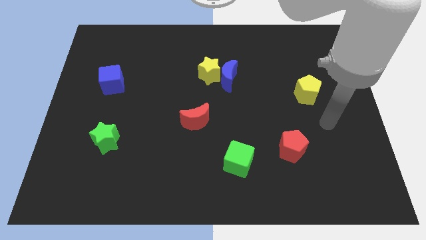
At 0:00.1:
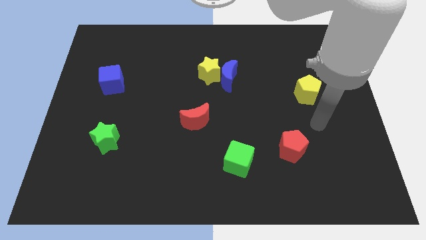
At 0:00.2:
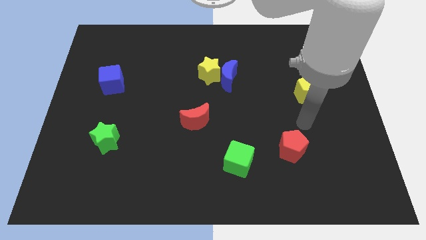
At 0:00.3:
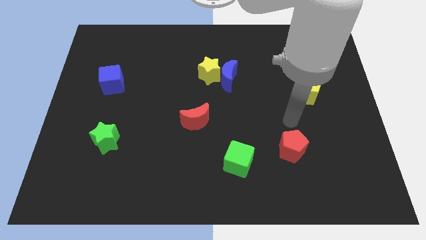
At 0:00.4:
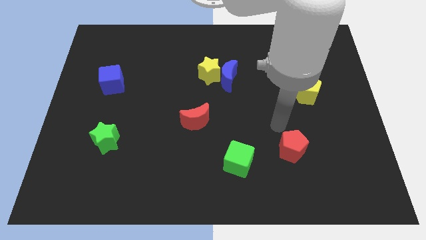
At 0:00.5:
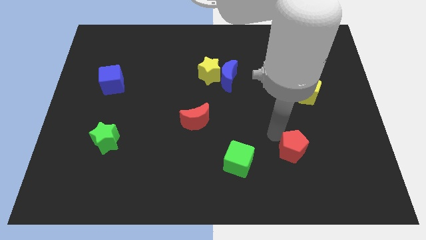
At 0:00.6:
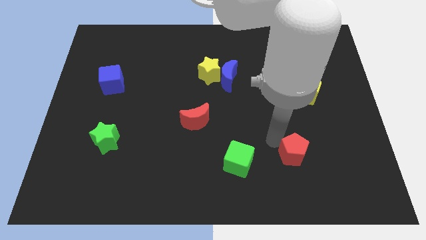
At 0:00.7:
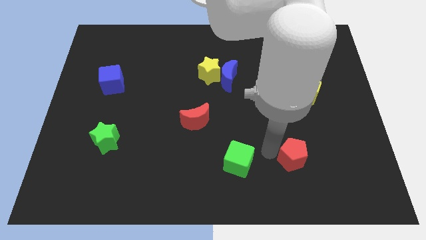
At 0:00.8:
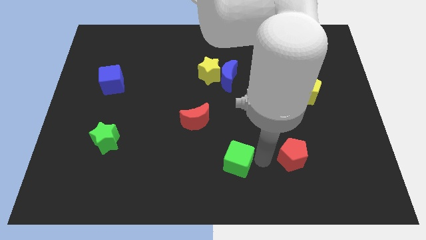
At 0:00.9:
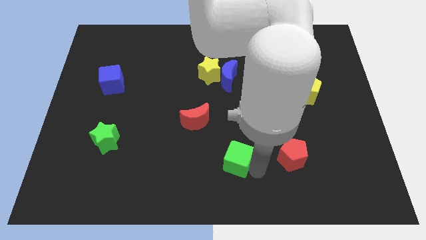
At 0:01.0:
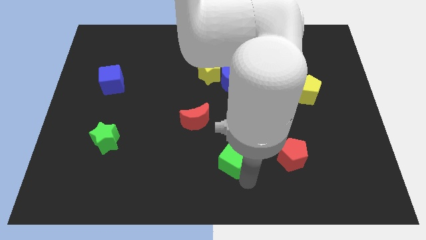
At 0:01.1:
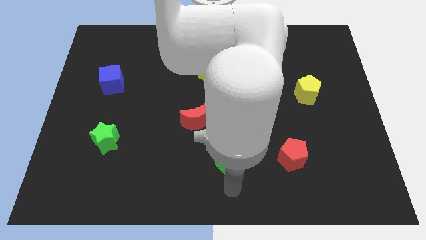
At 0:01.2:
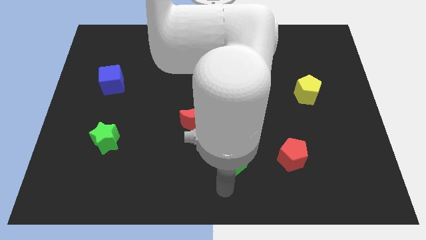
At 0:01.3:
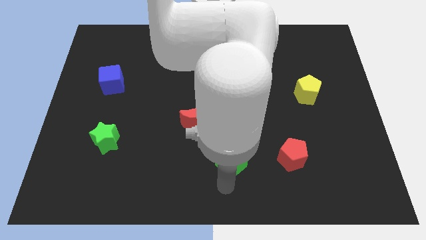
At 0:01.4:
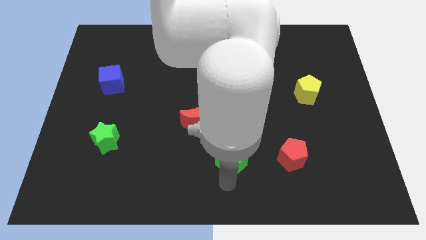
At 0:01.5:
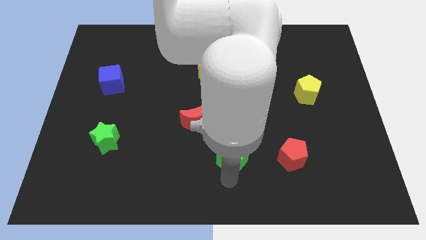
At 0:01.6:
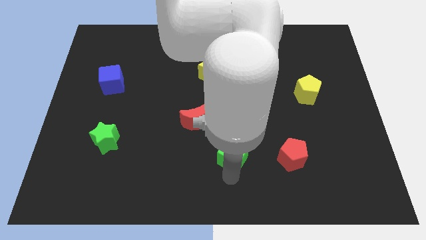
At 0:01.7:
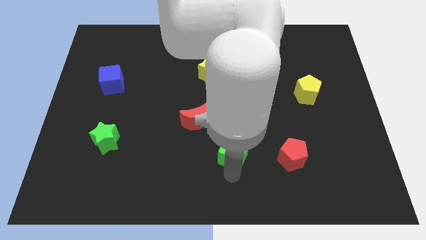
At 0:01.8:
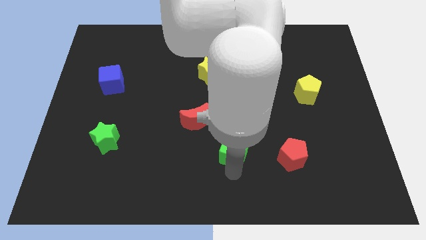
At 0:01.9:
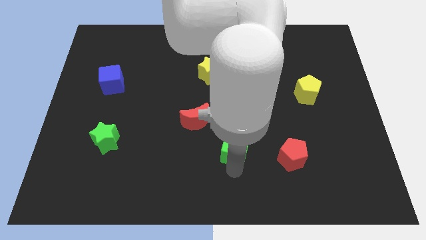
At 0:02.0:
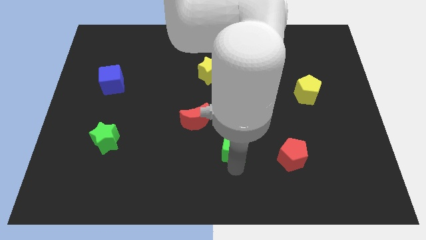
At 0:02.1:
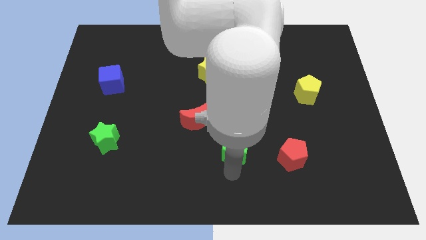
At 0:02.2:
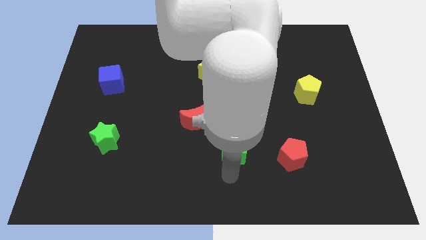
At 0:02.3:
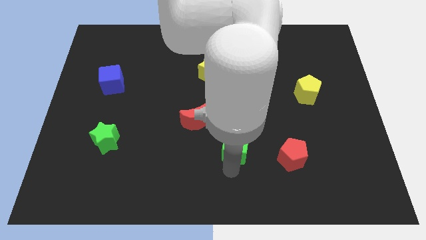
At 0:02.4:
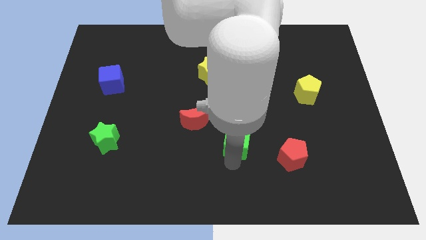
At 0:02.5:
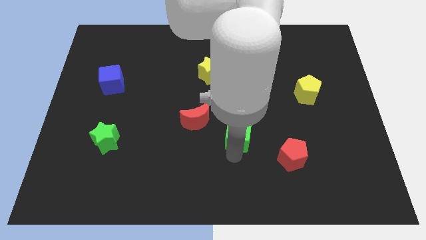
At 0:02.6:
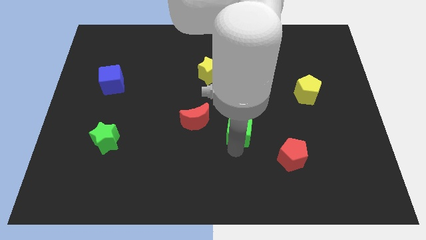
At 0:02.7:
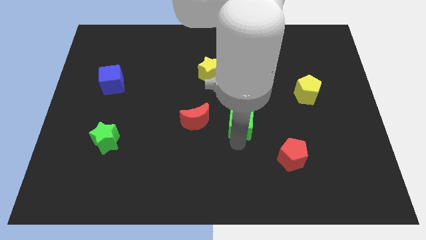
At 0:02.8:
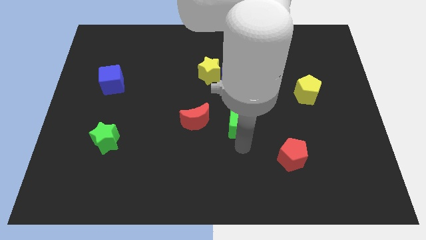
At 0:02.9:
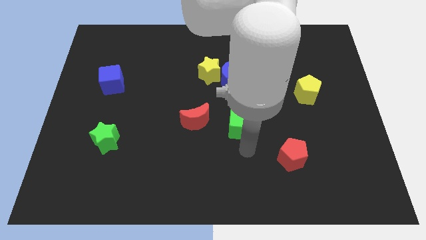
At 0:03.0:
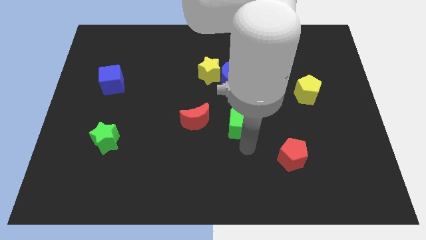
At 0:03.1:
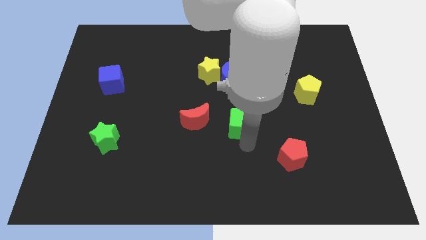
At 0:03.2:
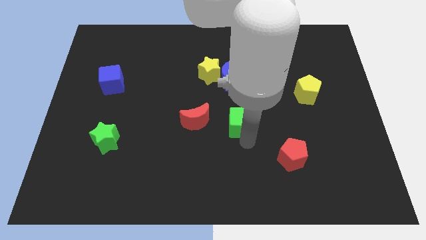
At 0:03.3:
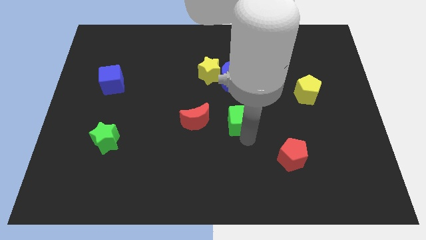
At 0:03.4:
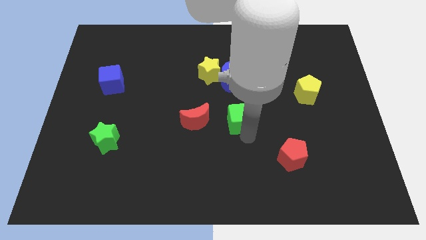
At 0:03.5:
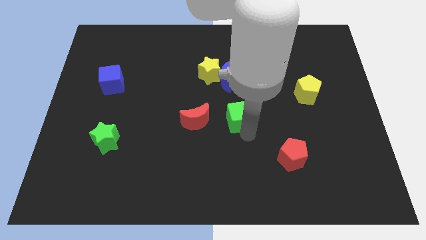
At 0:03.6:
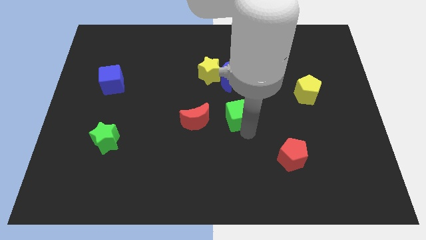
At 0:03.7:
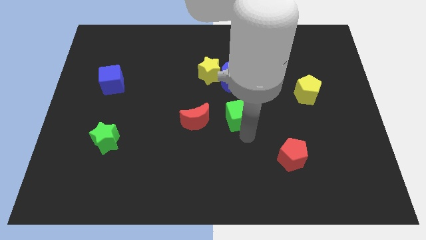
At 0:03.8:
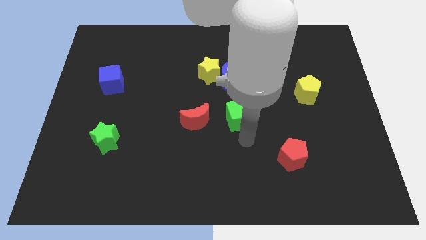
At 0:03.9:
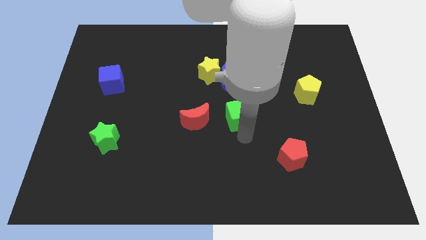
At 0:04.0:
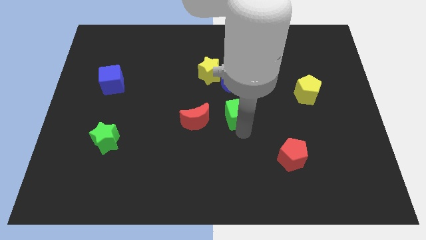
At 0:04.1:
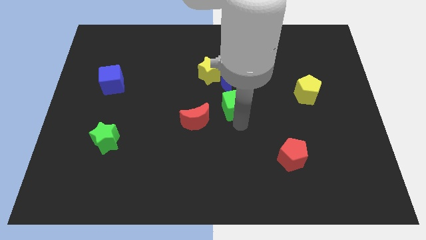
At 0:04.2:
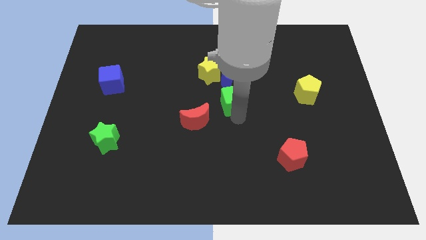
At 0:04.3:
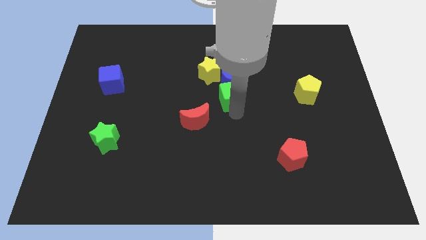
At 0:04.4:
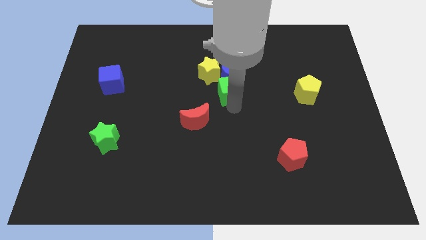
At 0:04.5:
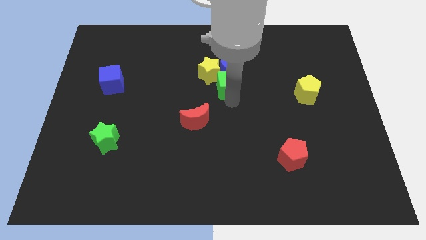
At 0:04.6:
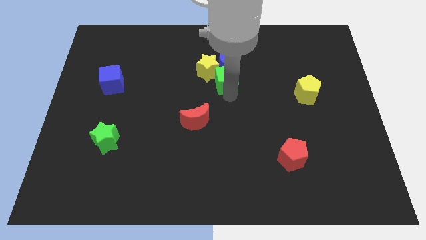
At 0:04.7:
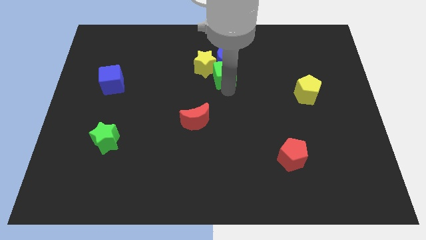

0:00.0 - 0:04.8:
slide the green cube close to the blue moon

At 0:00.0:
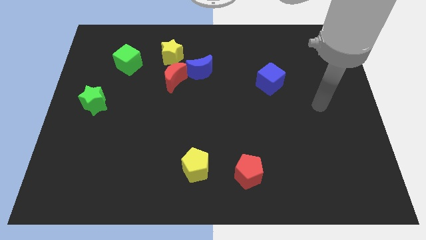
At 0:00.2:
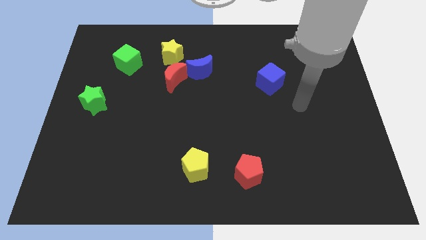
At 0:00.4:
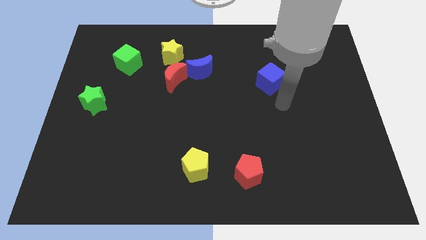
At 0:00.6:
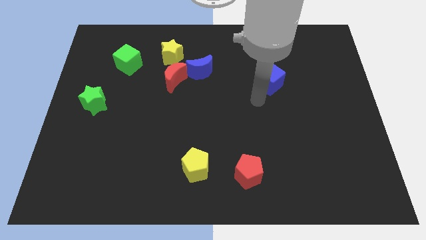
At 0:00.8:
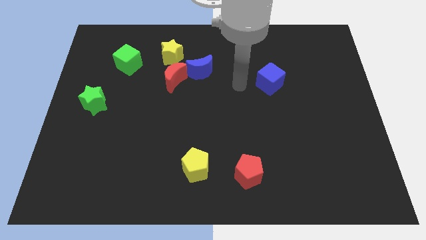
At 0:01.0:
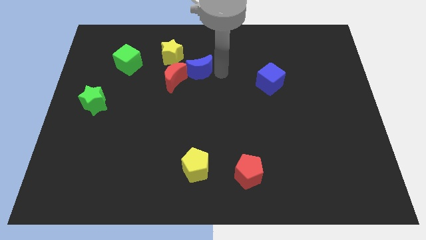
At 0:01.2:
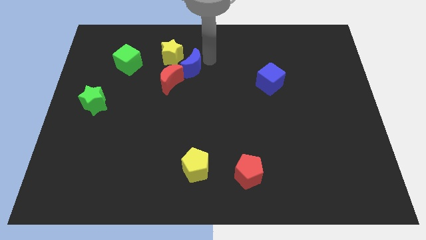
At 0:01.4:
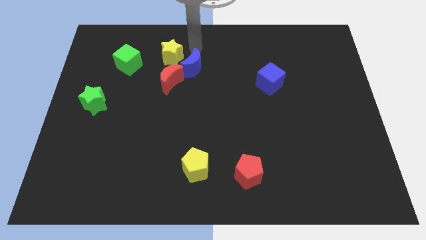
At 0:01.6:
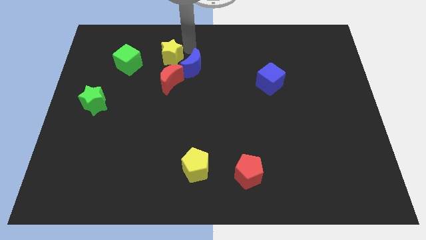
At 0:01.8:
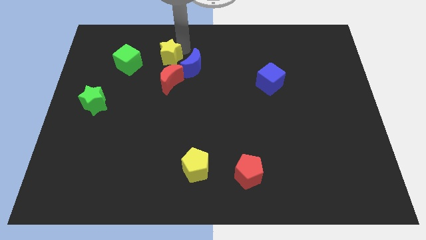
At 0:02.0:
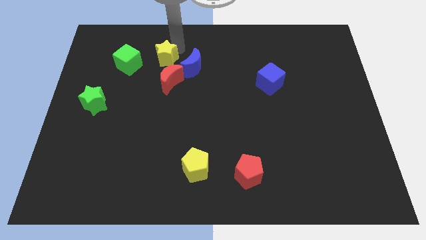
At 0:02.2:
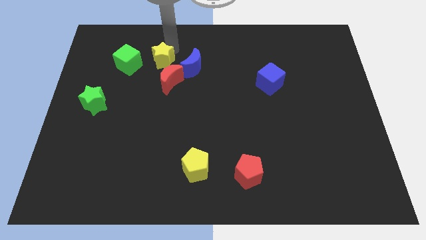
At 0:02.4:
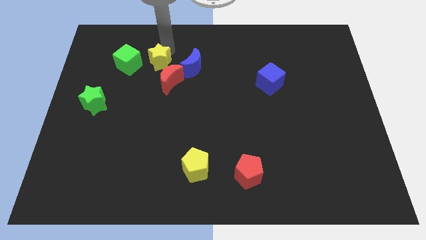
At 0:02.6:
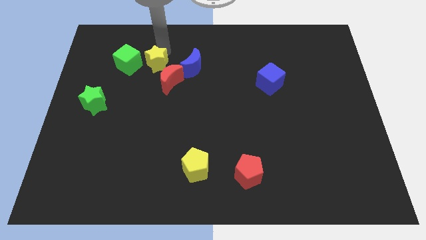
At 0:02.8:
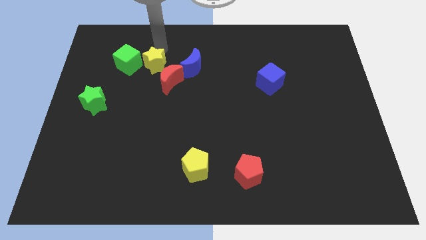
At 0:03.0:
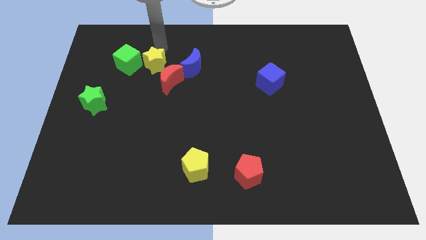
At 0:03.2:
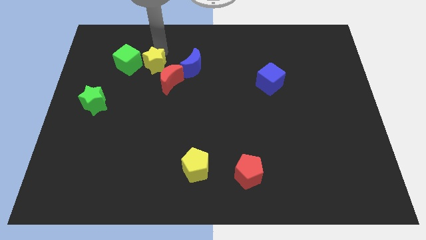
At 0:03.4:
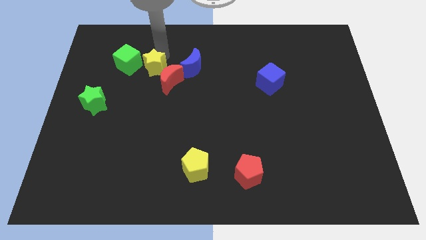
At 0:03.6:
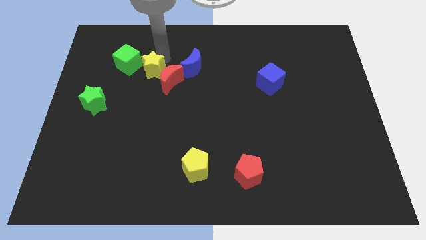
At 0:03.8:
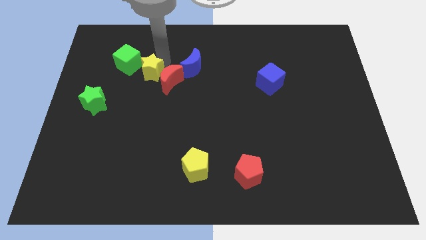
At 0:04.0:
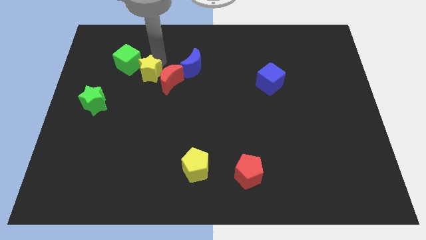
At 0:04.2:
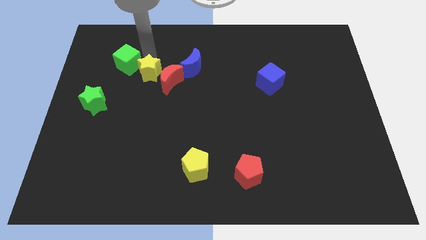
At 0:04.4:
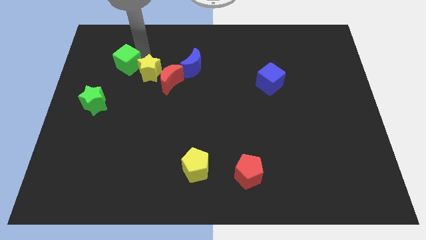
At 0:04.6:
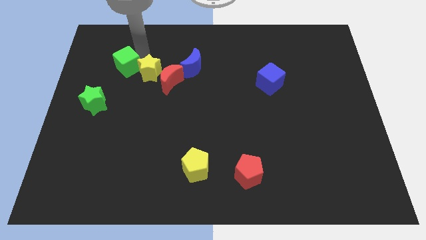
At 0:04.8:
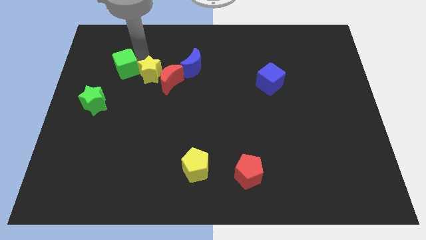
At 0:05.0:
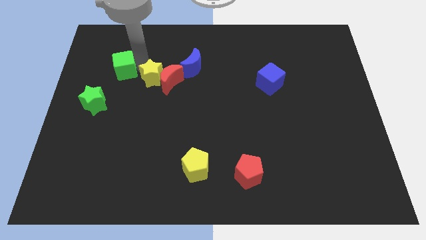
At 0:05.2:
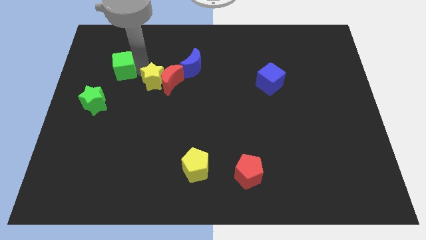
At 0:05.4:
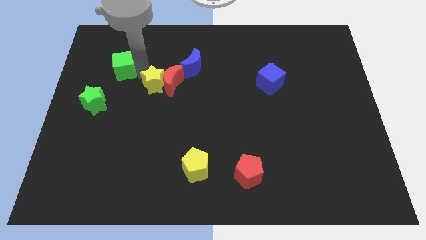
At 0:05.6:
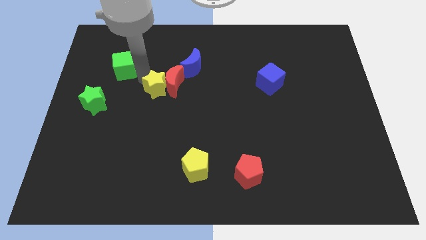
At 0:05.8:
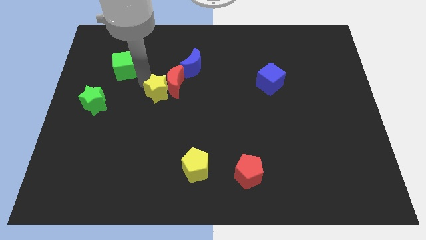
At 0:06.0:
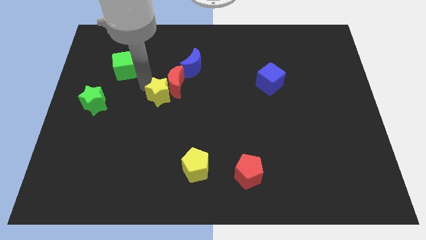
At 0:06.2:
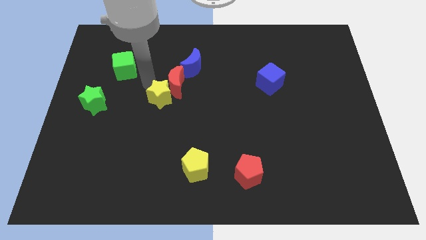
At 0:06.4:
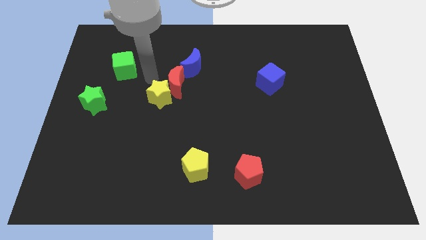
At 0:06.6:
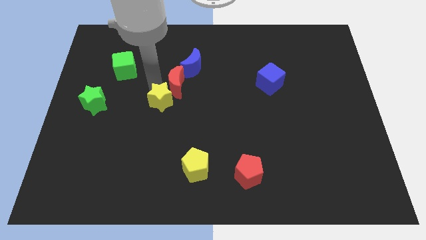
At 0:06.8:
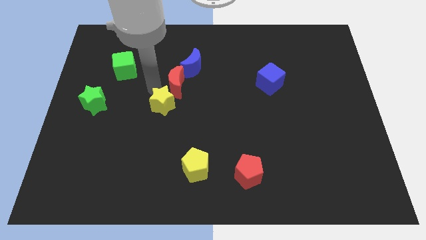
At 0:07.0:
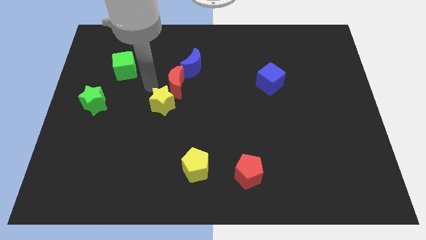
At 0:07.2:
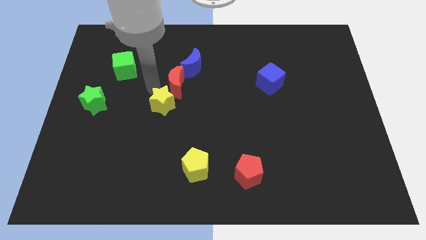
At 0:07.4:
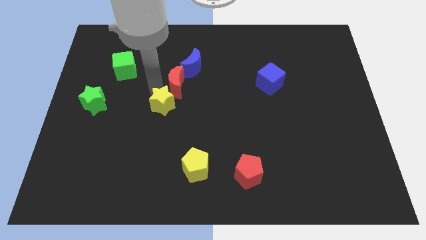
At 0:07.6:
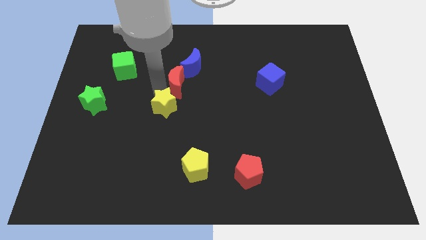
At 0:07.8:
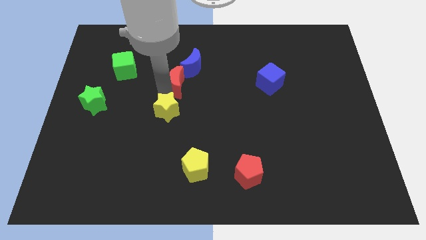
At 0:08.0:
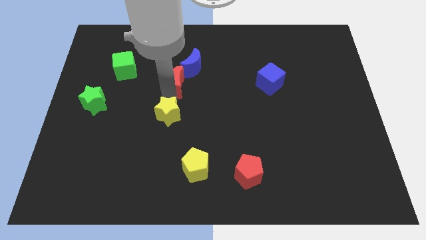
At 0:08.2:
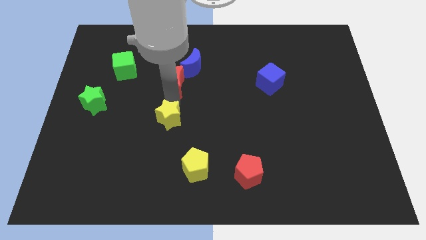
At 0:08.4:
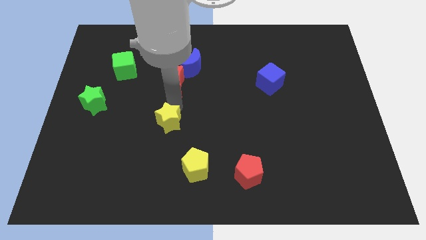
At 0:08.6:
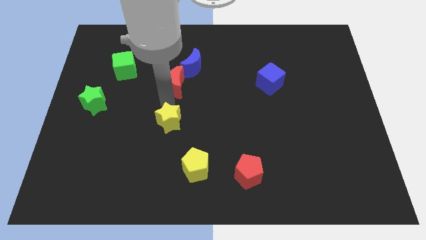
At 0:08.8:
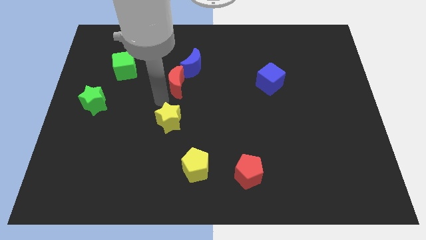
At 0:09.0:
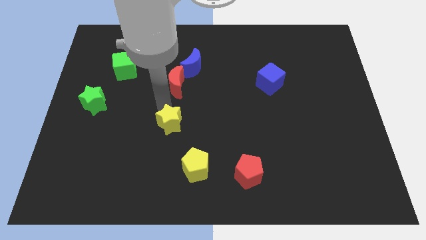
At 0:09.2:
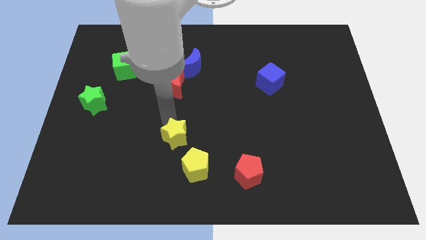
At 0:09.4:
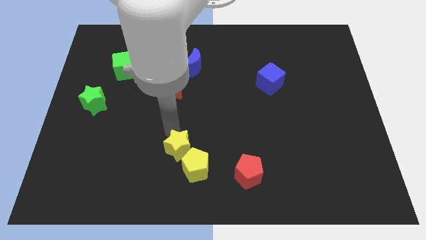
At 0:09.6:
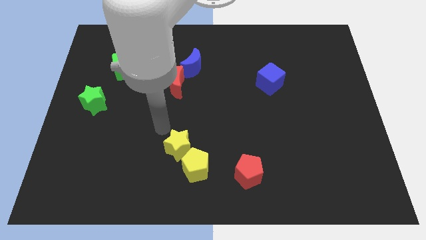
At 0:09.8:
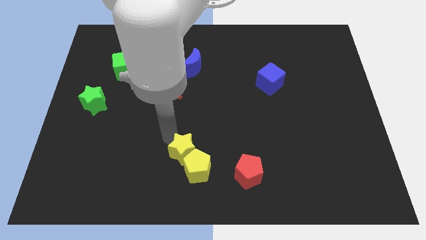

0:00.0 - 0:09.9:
push the yellow star towards the yellow pentagon
